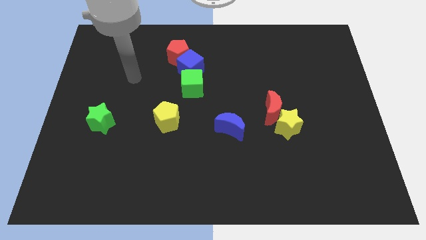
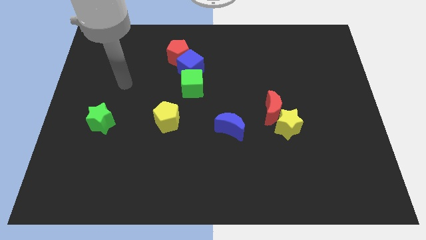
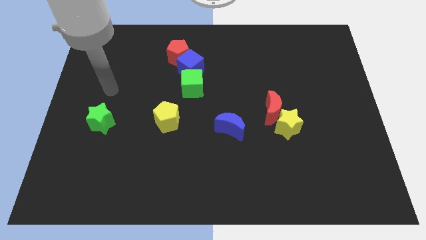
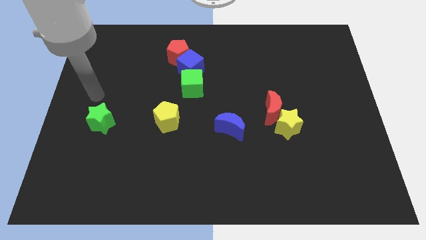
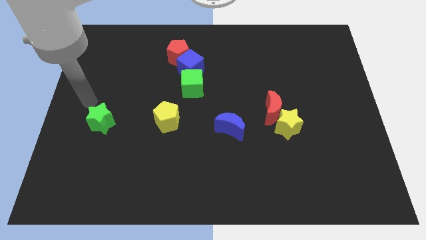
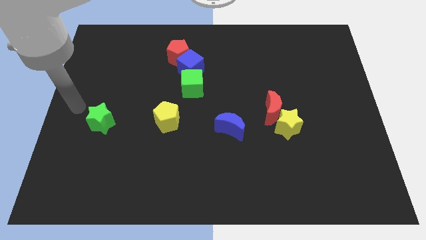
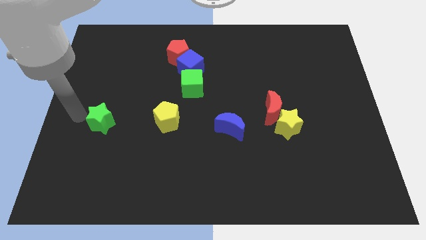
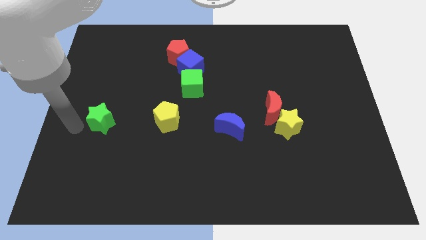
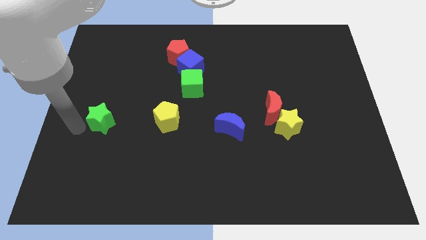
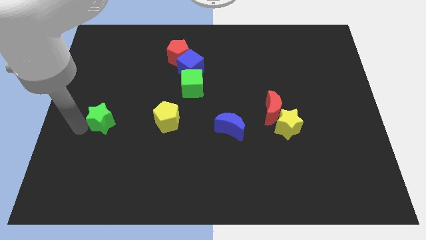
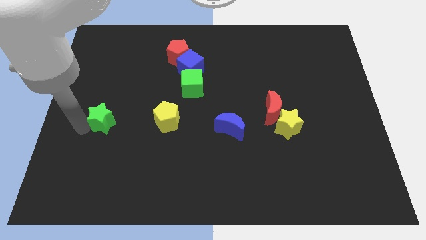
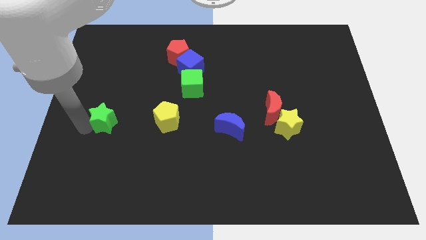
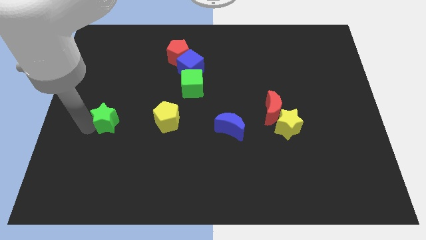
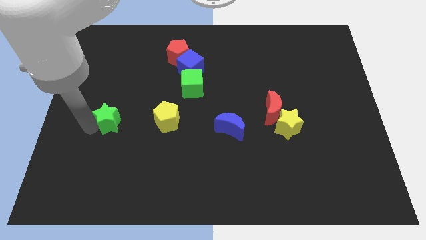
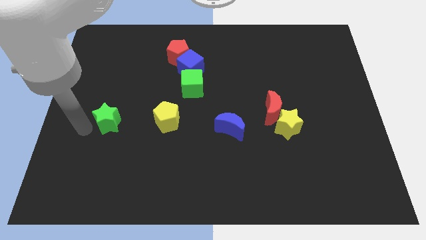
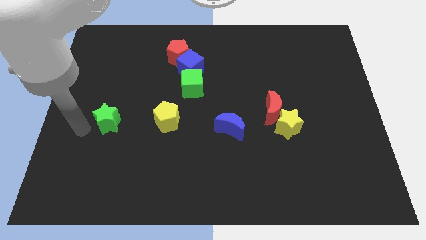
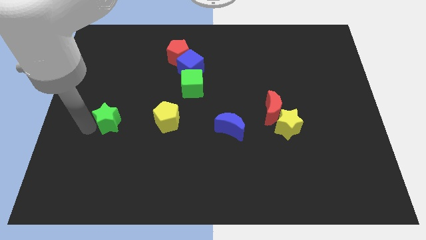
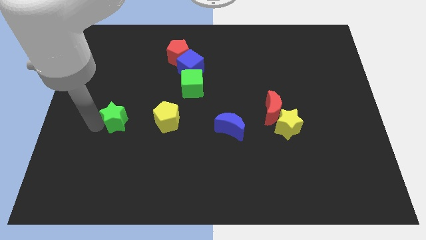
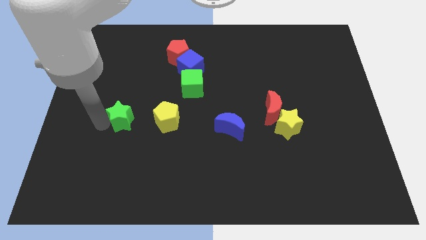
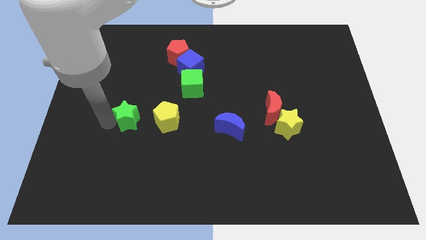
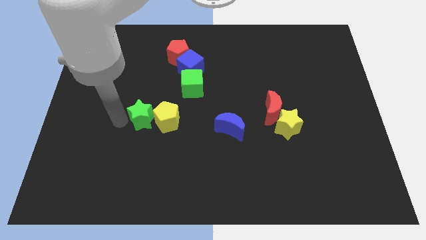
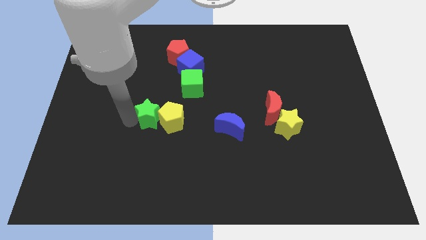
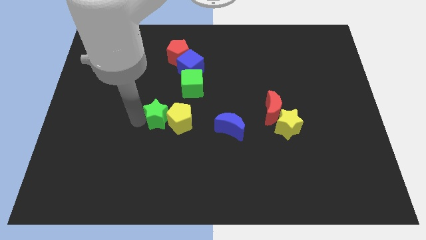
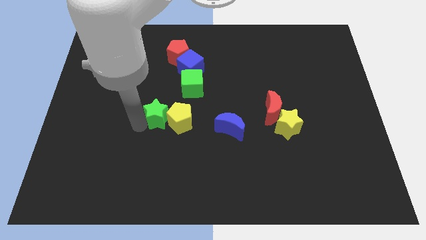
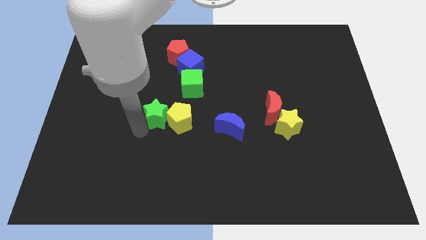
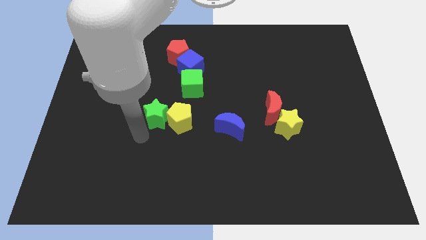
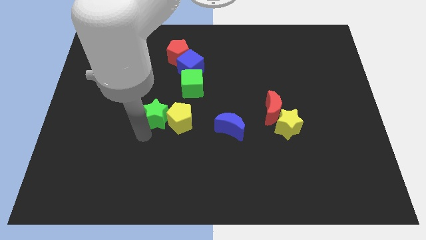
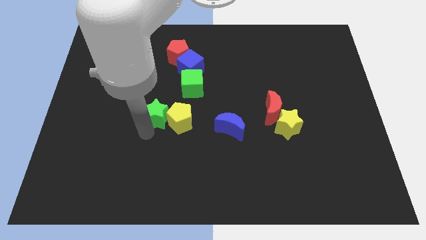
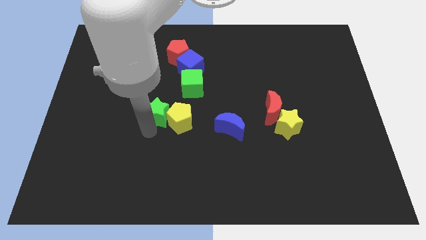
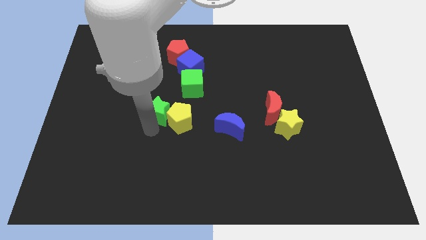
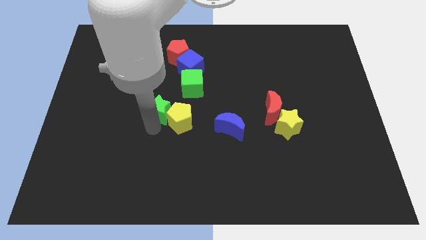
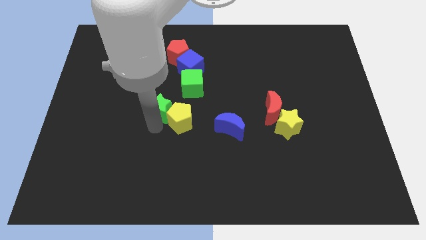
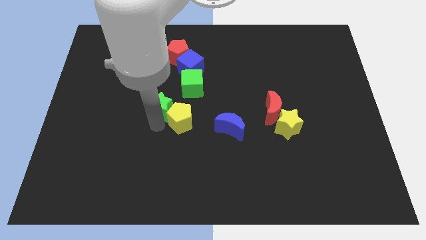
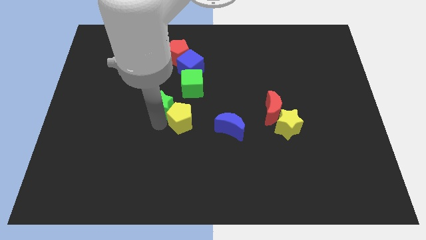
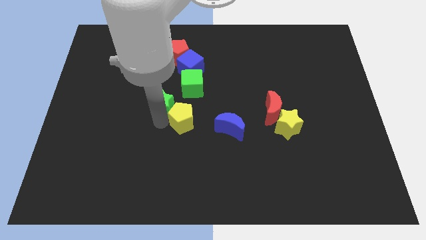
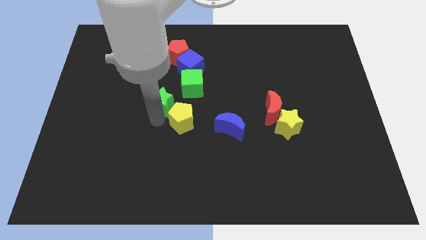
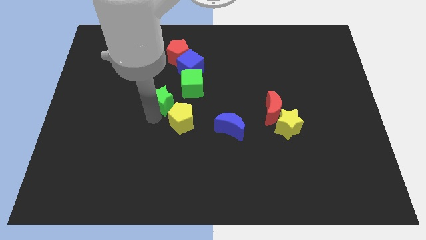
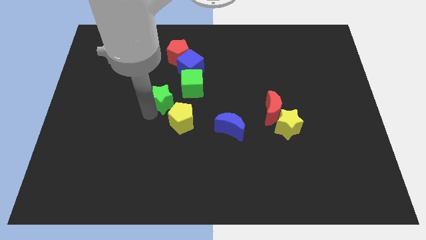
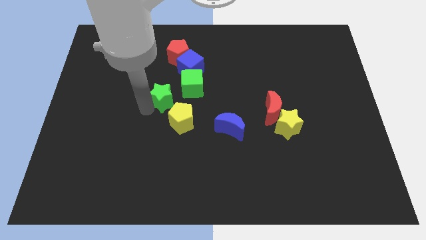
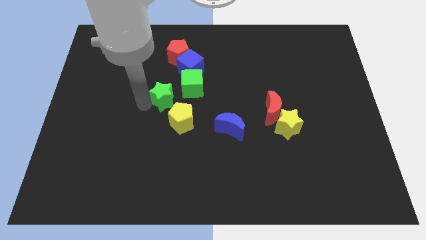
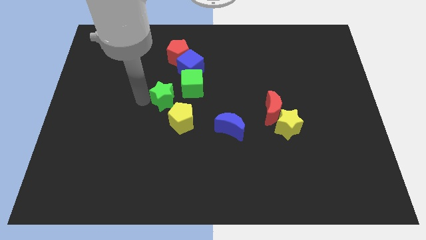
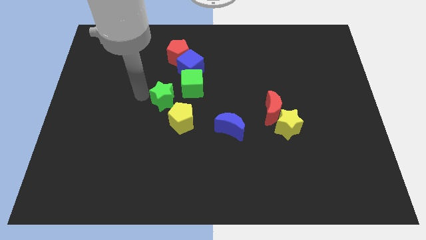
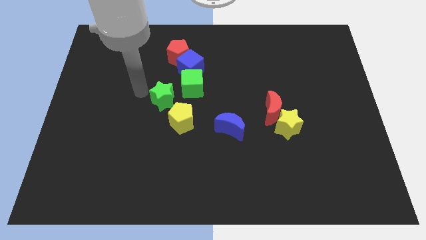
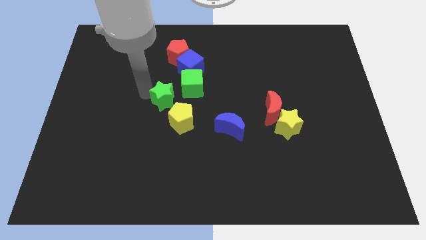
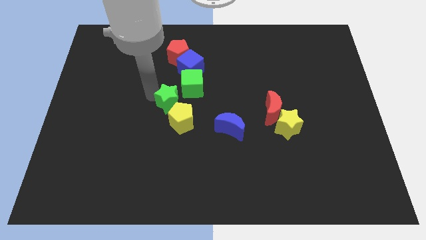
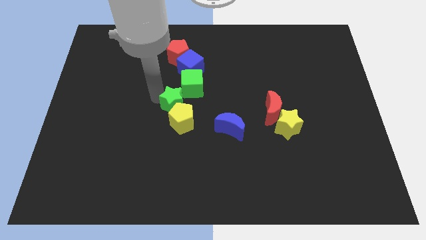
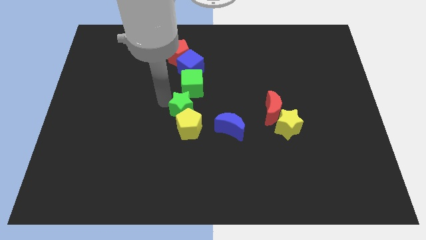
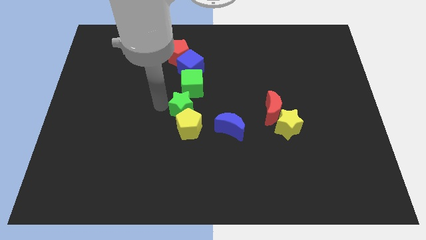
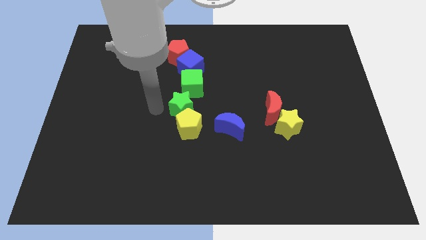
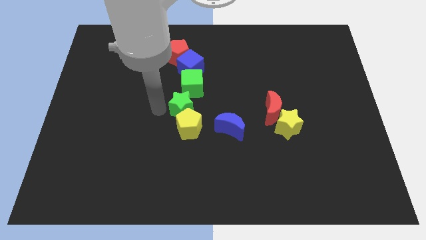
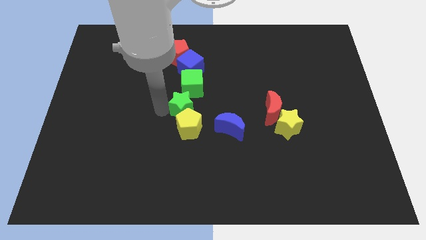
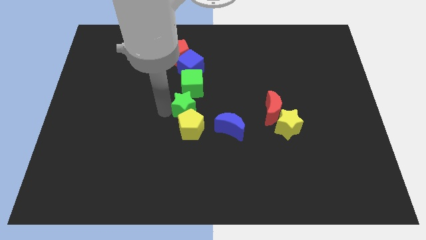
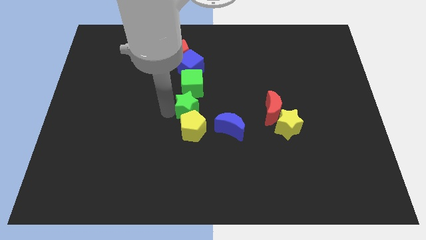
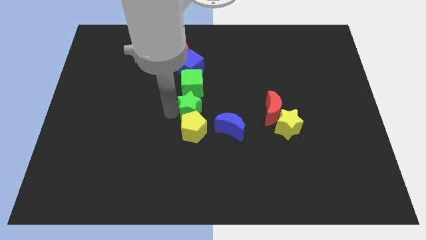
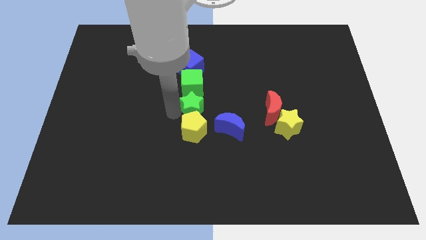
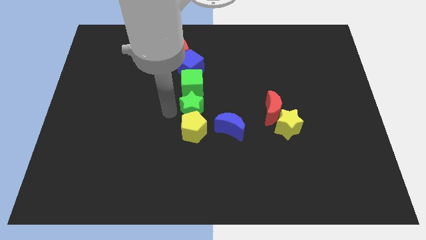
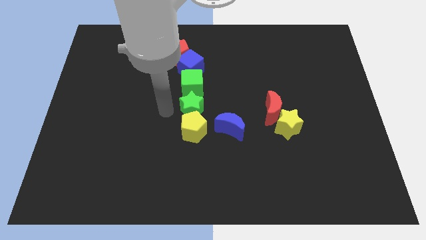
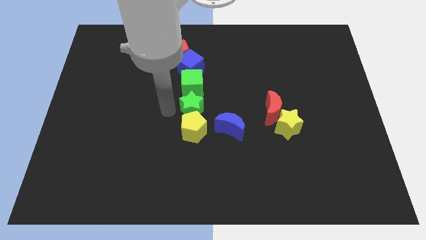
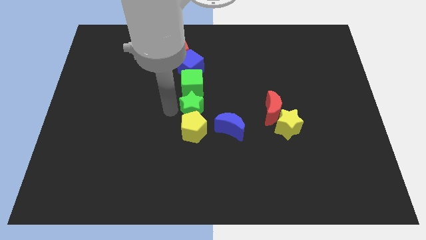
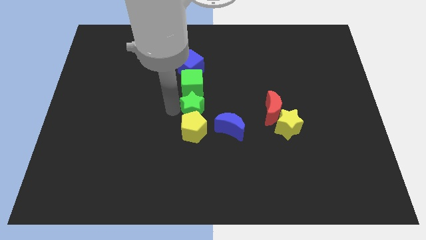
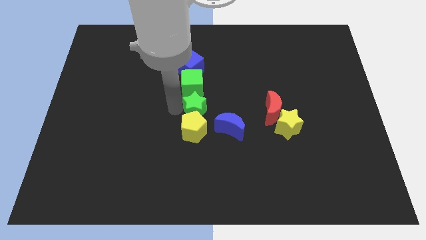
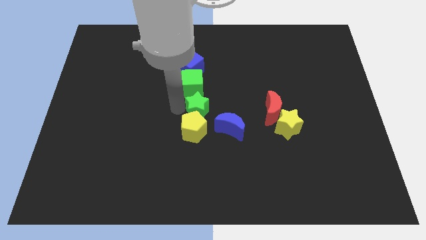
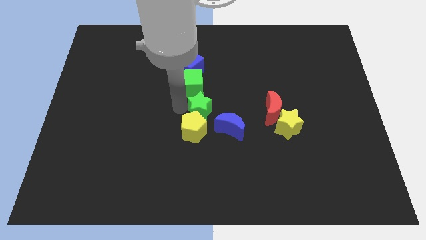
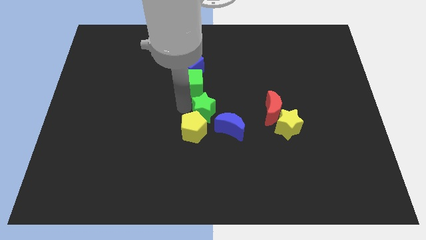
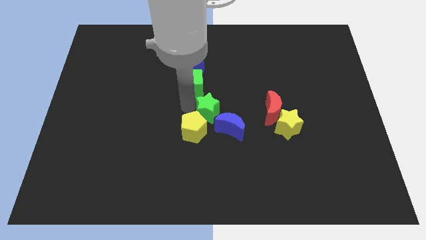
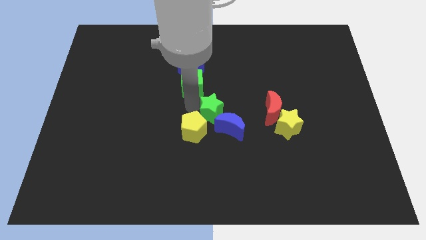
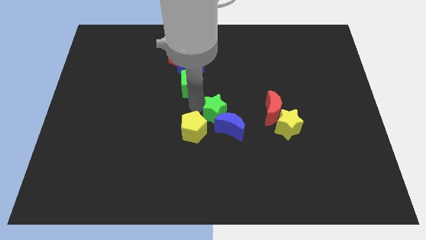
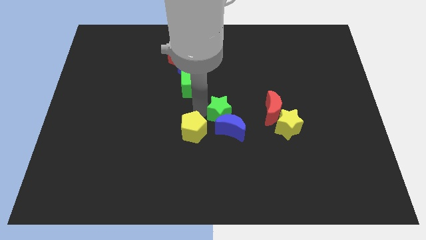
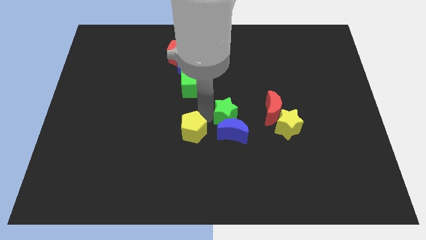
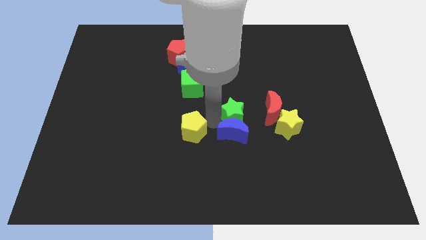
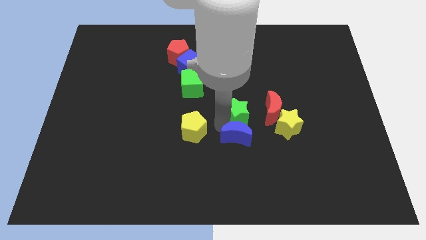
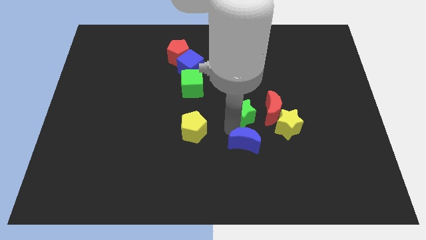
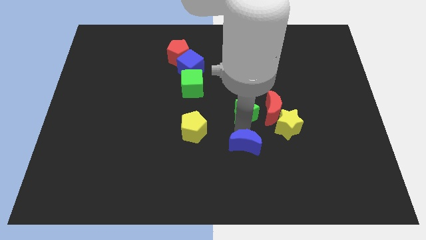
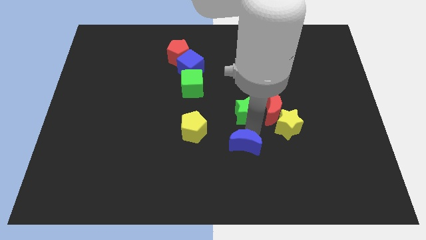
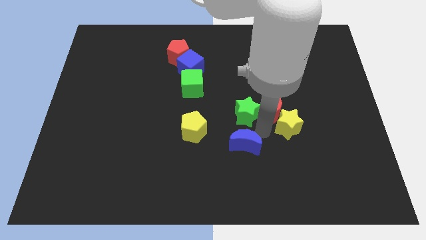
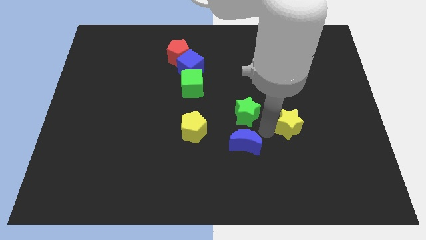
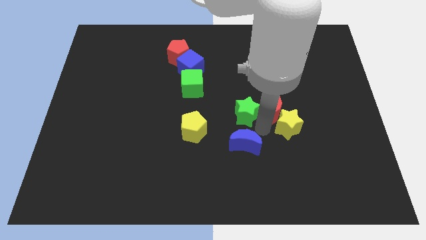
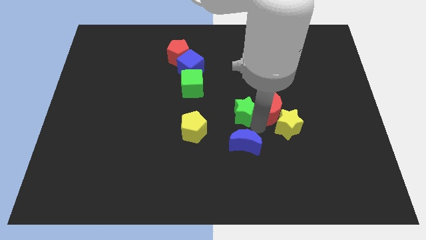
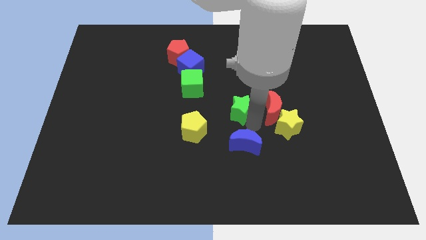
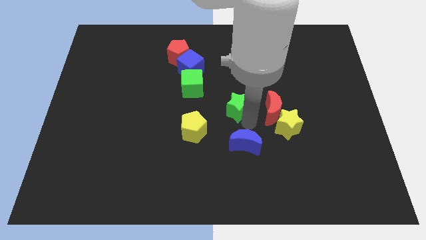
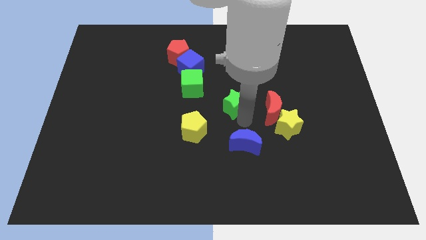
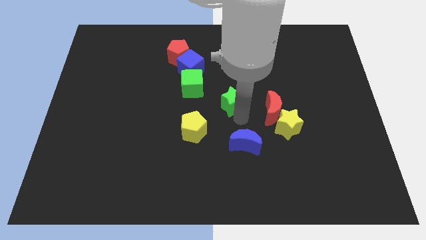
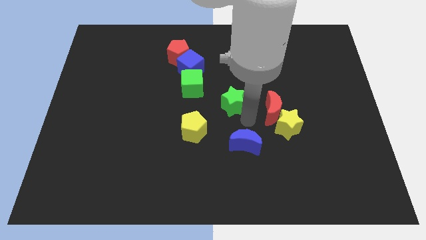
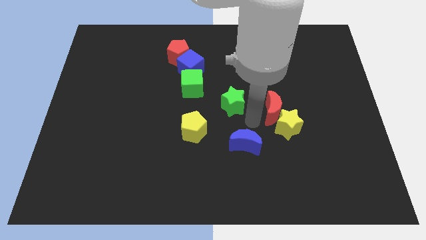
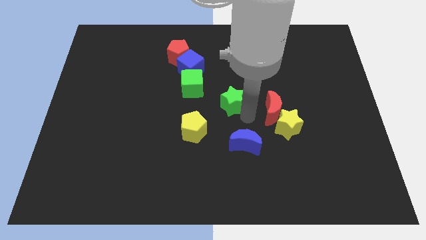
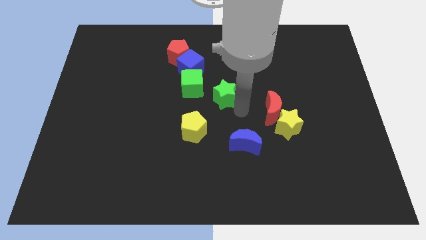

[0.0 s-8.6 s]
slide the green star diagonally down and to the right of the blue cube
